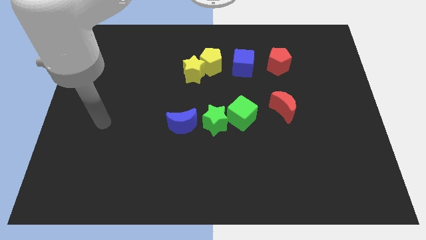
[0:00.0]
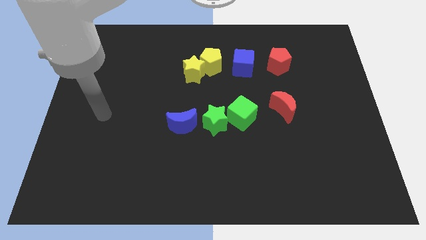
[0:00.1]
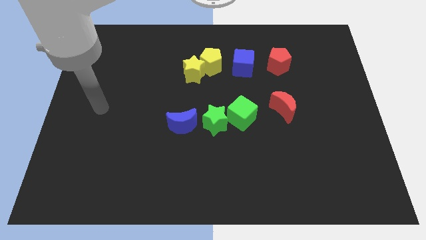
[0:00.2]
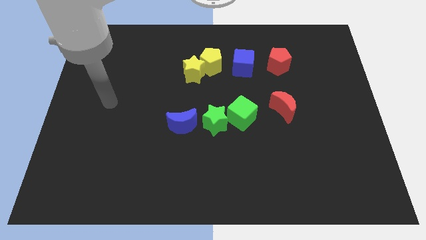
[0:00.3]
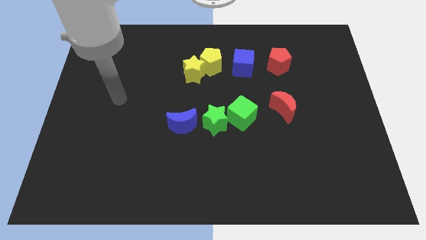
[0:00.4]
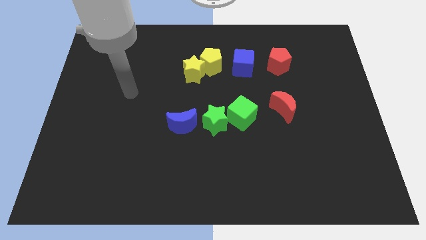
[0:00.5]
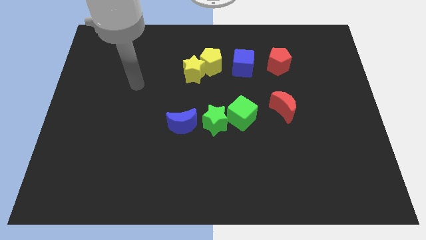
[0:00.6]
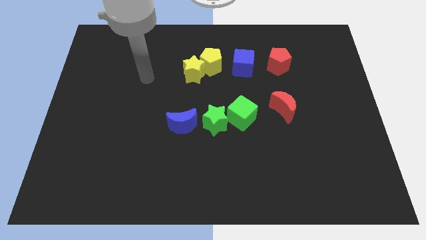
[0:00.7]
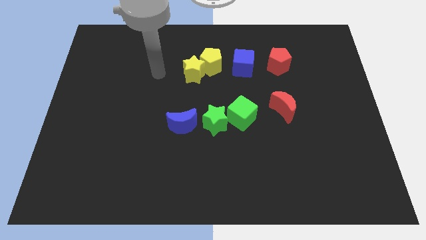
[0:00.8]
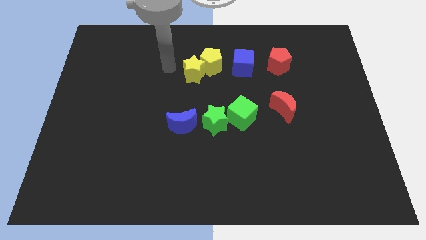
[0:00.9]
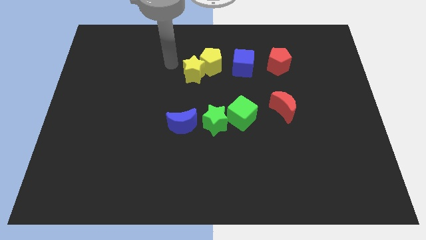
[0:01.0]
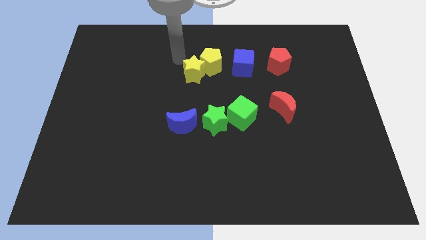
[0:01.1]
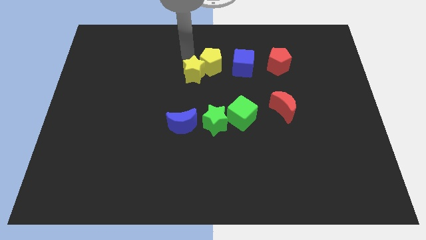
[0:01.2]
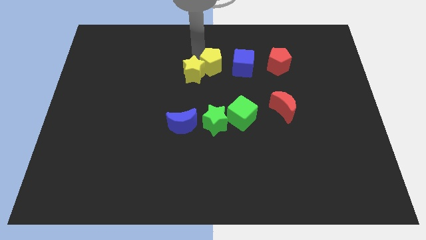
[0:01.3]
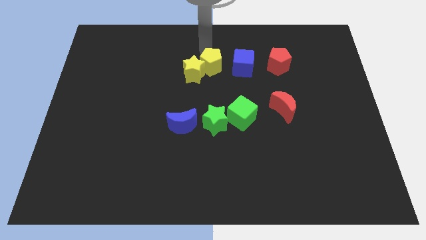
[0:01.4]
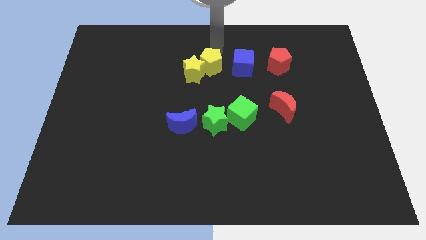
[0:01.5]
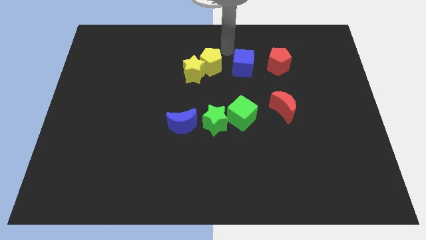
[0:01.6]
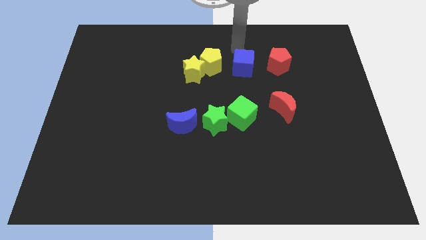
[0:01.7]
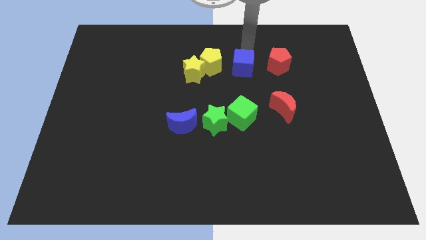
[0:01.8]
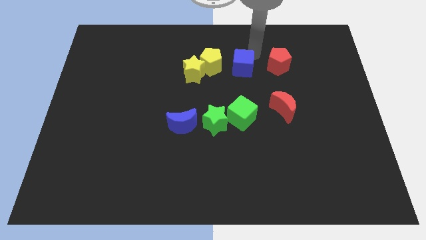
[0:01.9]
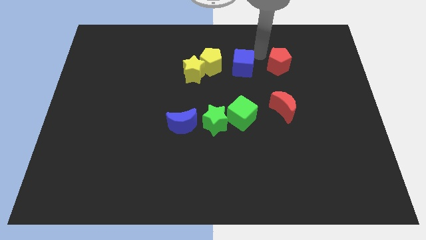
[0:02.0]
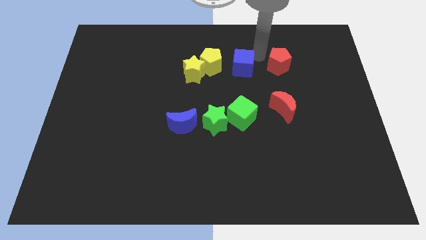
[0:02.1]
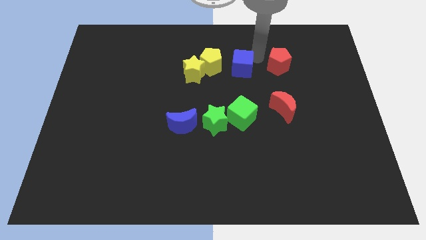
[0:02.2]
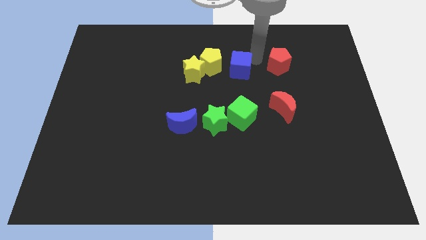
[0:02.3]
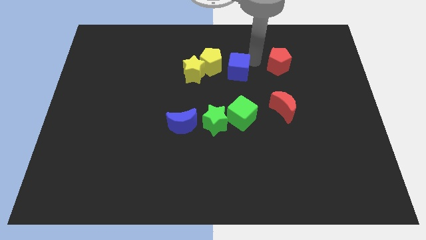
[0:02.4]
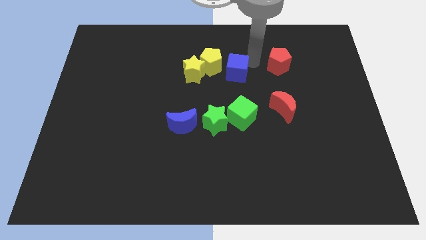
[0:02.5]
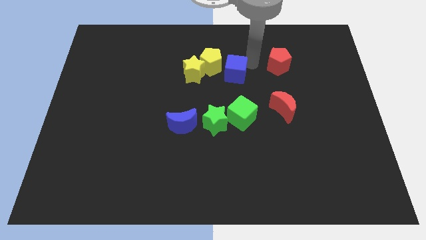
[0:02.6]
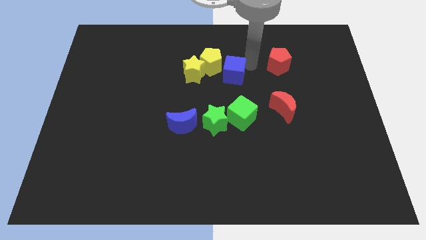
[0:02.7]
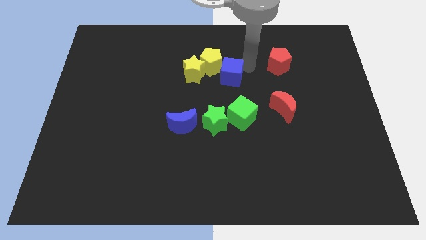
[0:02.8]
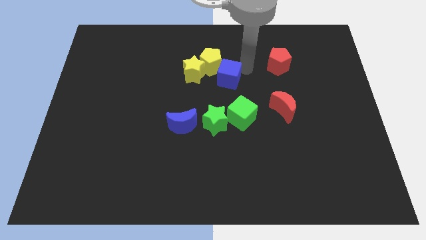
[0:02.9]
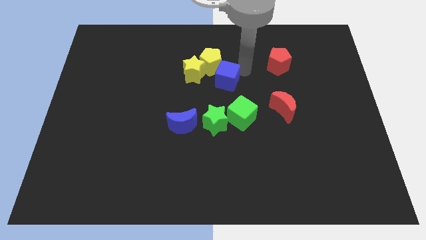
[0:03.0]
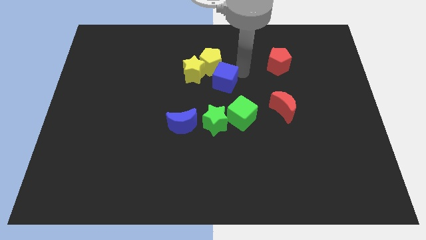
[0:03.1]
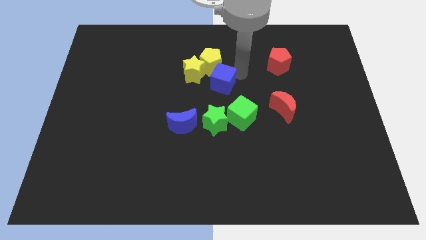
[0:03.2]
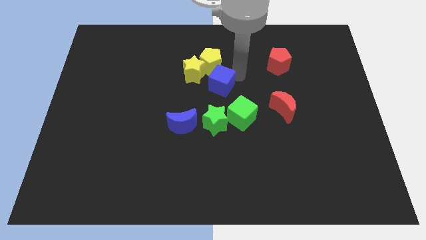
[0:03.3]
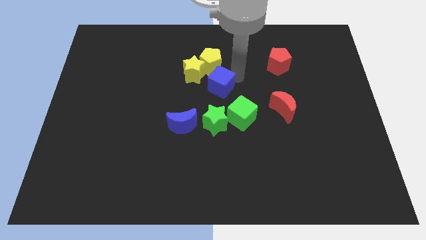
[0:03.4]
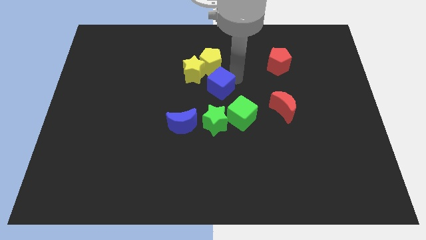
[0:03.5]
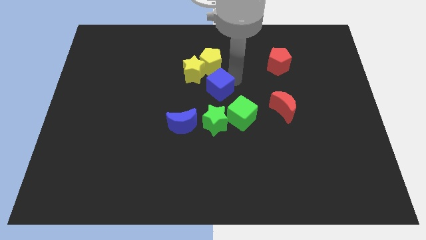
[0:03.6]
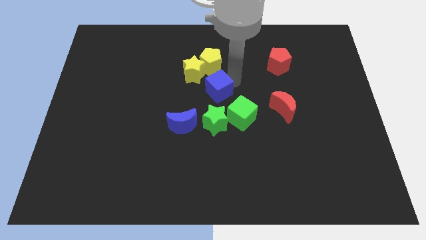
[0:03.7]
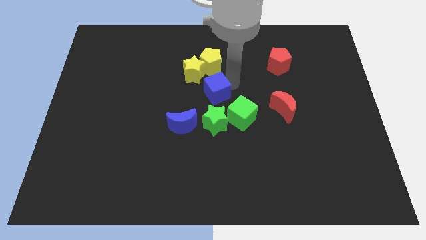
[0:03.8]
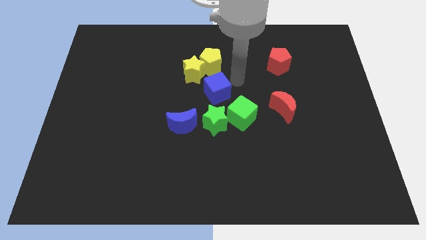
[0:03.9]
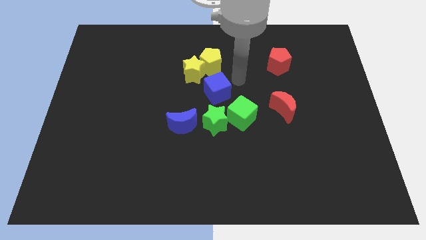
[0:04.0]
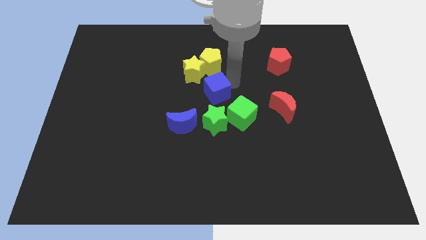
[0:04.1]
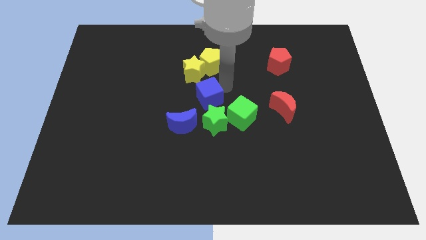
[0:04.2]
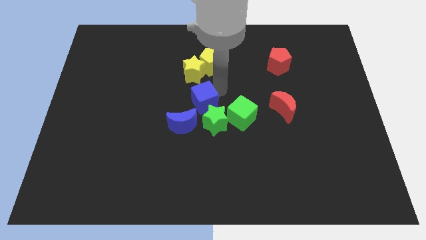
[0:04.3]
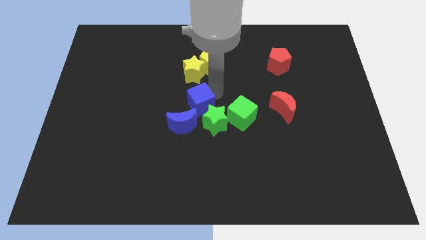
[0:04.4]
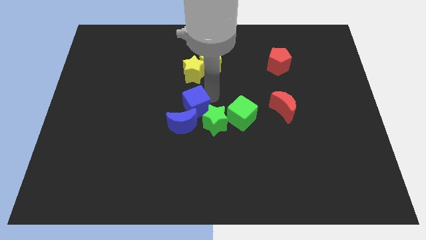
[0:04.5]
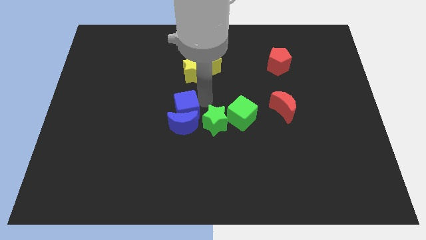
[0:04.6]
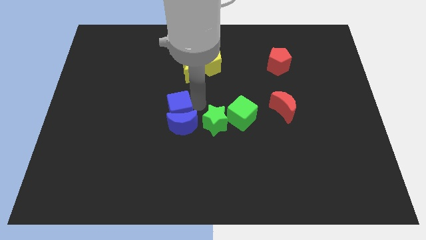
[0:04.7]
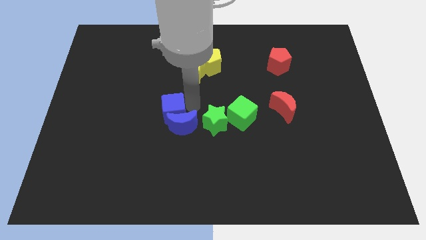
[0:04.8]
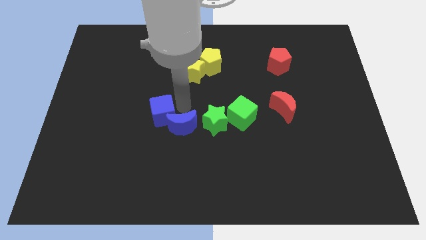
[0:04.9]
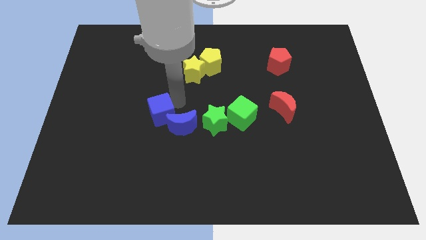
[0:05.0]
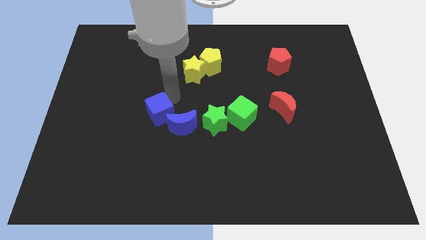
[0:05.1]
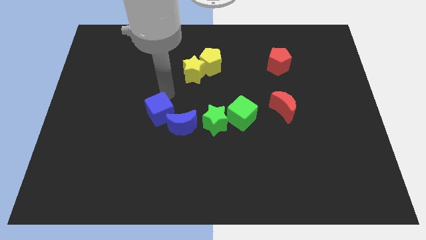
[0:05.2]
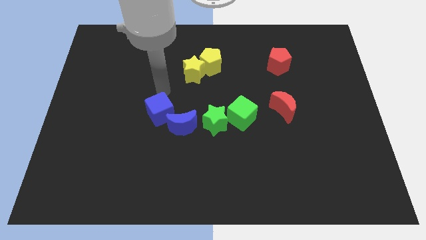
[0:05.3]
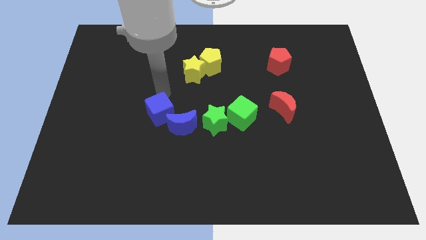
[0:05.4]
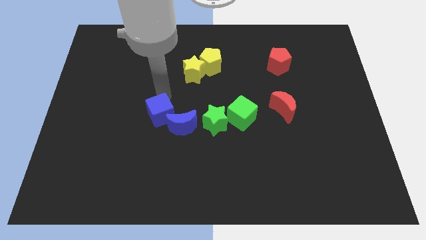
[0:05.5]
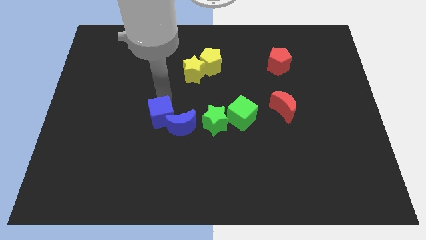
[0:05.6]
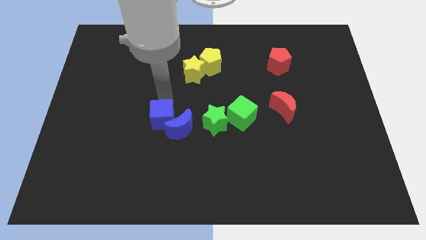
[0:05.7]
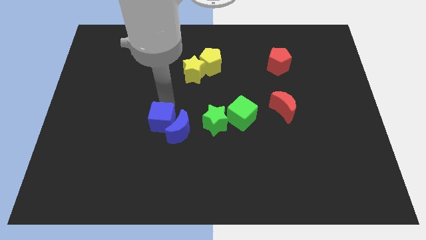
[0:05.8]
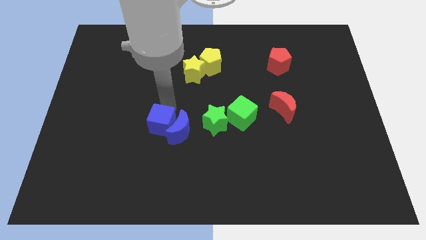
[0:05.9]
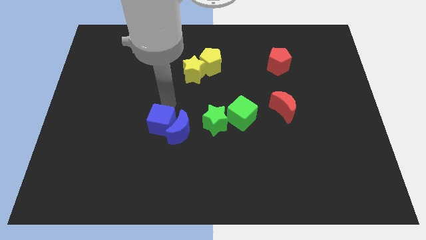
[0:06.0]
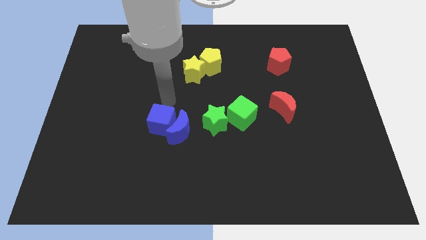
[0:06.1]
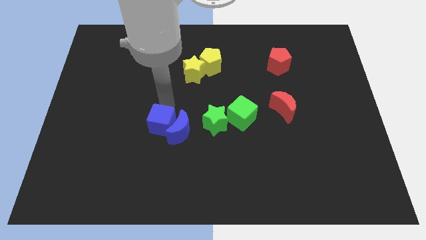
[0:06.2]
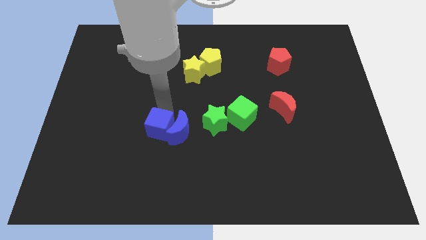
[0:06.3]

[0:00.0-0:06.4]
slide the blue cube diagonally down and to the left of the blue moon
